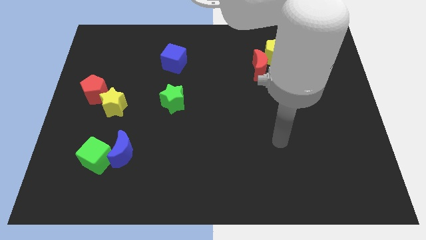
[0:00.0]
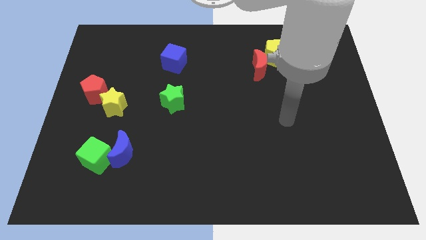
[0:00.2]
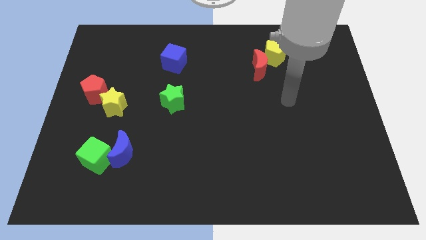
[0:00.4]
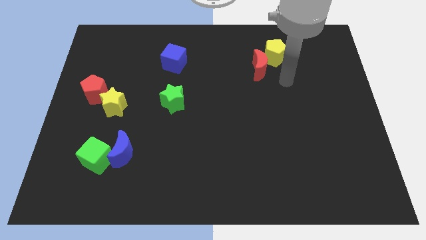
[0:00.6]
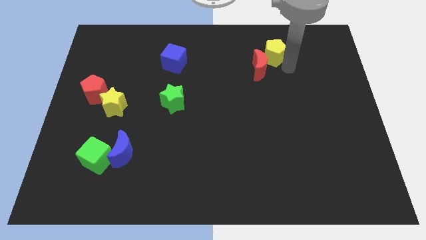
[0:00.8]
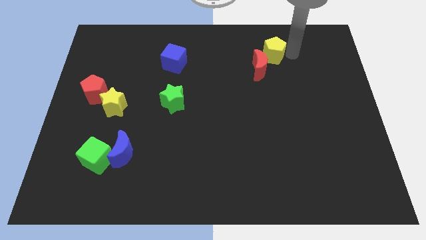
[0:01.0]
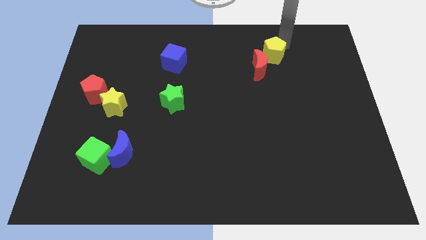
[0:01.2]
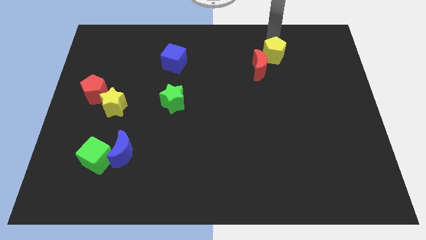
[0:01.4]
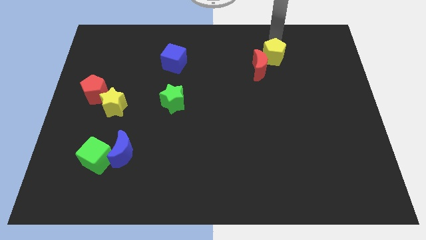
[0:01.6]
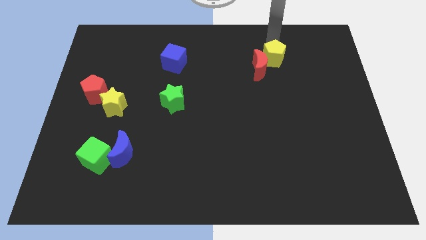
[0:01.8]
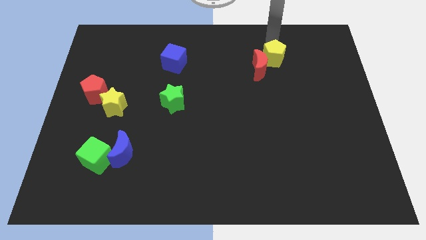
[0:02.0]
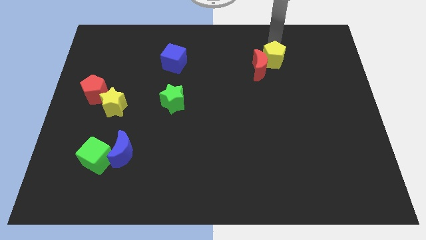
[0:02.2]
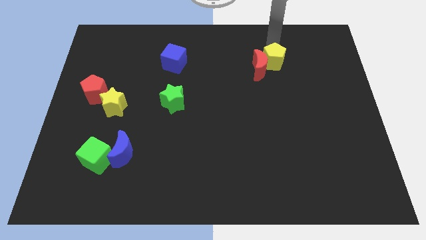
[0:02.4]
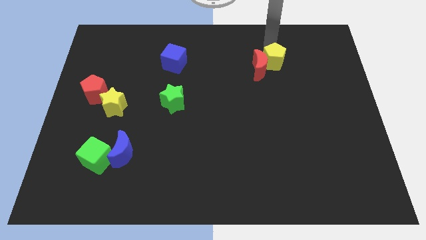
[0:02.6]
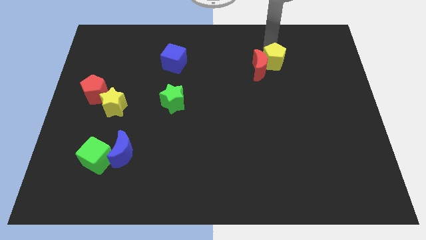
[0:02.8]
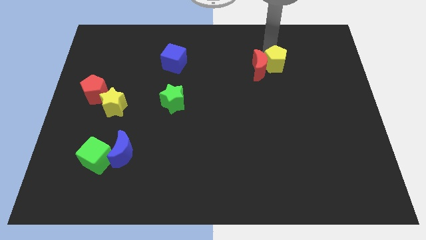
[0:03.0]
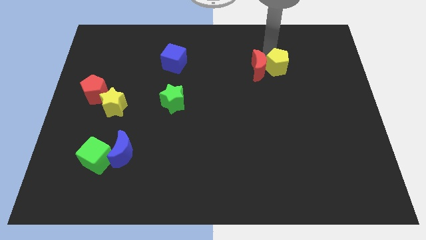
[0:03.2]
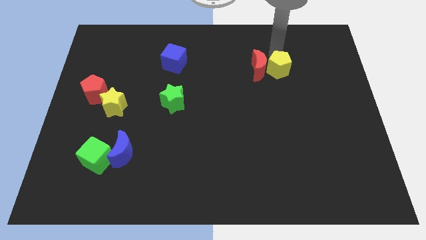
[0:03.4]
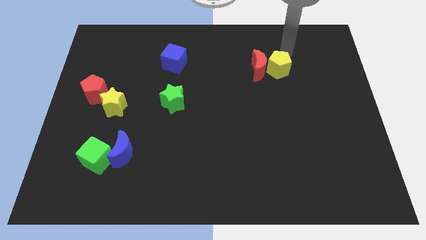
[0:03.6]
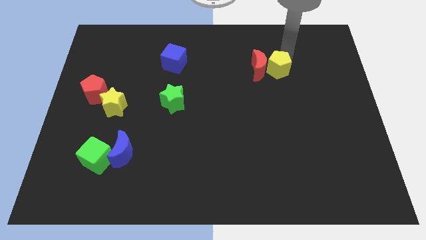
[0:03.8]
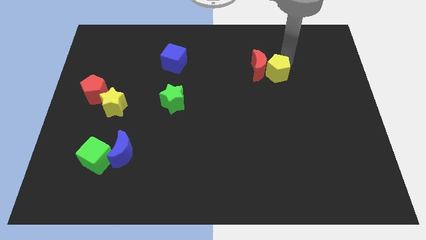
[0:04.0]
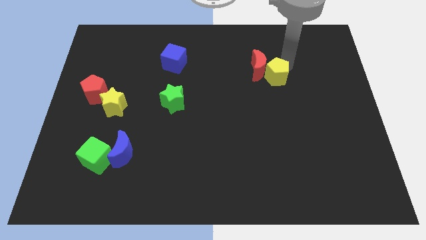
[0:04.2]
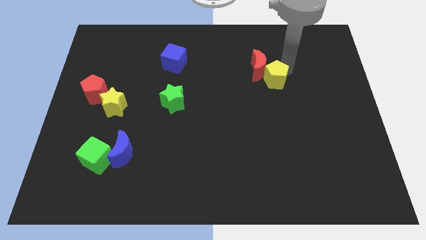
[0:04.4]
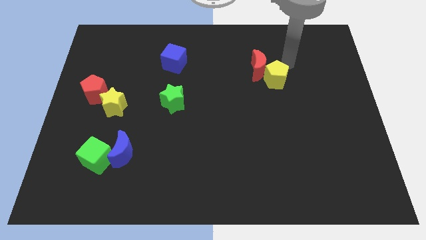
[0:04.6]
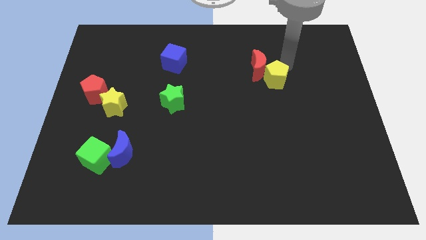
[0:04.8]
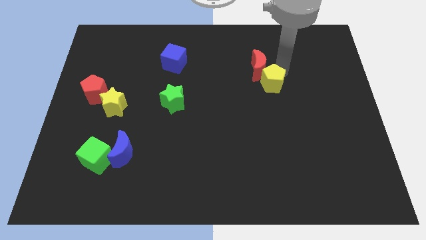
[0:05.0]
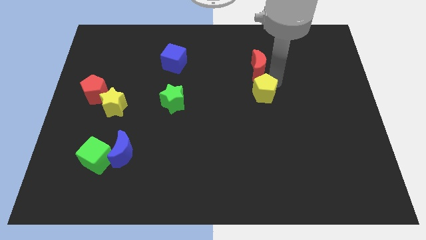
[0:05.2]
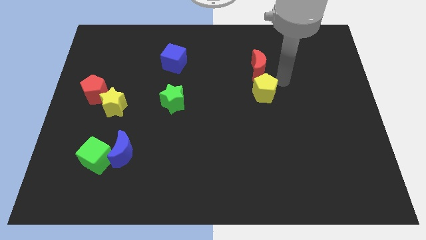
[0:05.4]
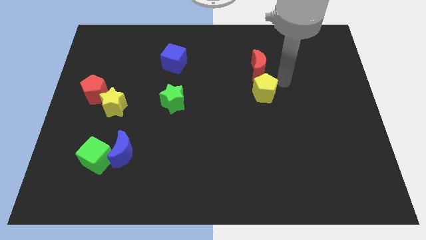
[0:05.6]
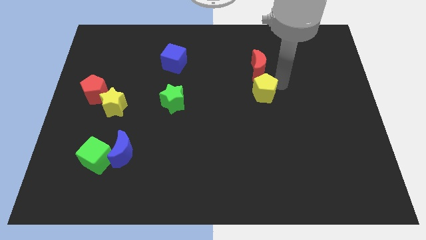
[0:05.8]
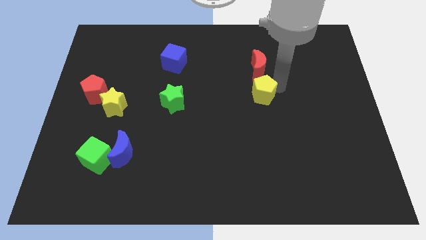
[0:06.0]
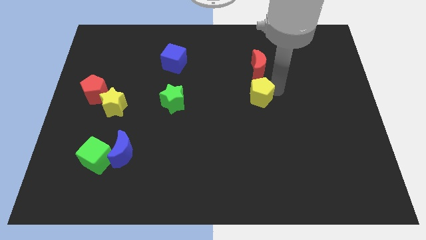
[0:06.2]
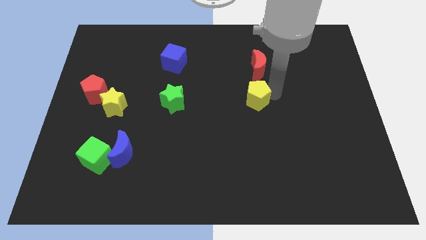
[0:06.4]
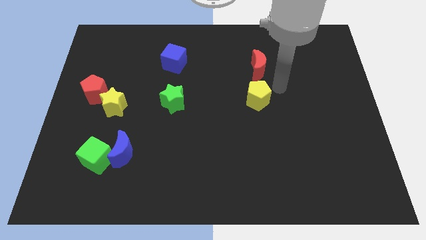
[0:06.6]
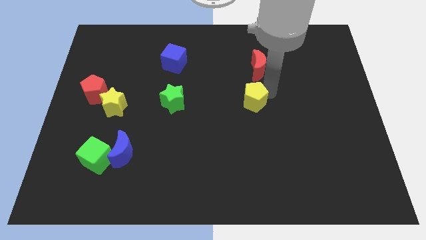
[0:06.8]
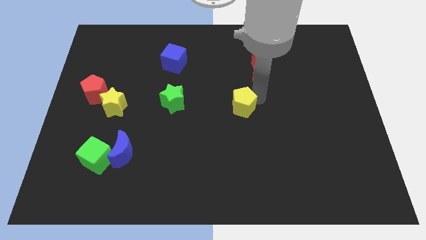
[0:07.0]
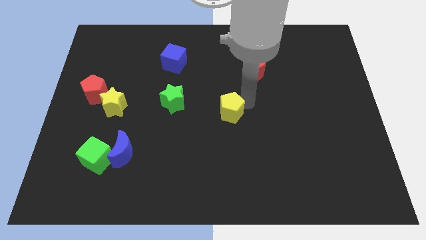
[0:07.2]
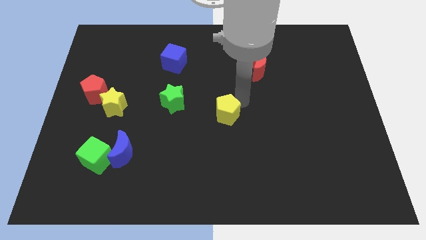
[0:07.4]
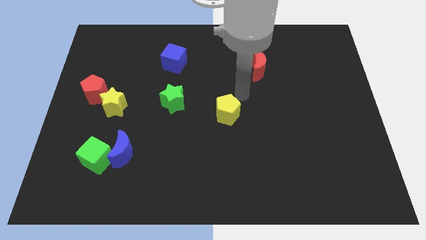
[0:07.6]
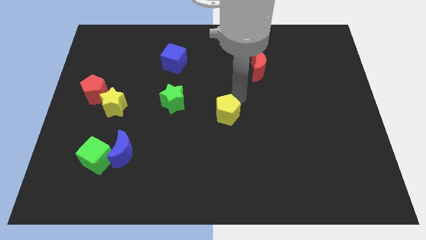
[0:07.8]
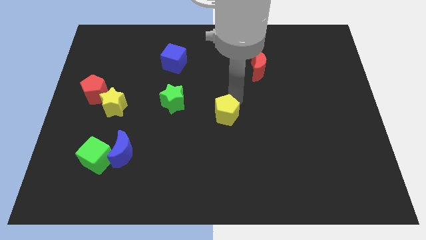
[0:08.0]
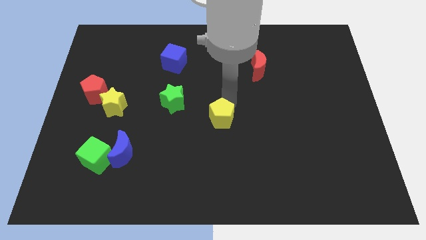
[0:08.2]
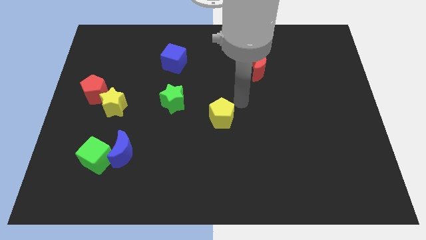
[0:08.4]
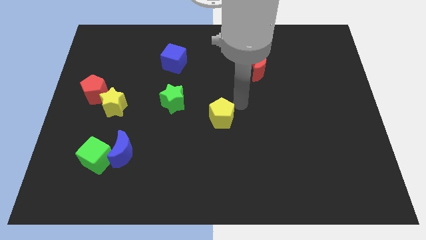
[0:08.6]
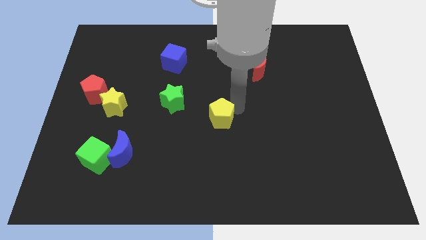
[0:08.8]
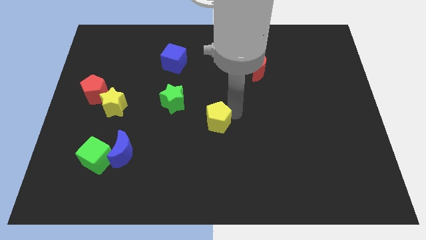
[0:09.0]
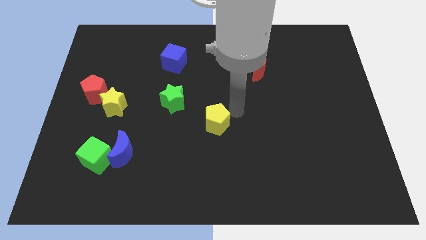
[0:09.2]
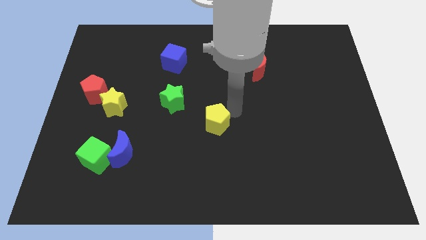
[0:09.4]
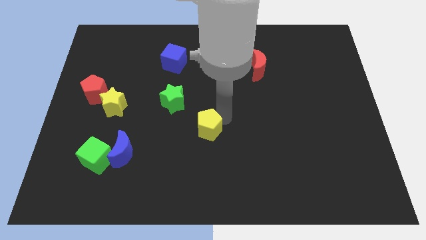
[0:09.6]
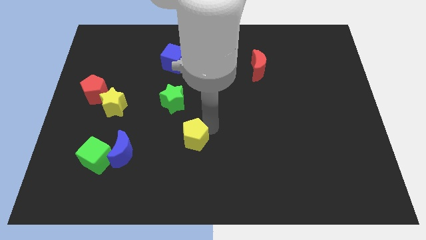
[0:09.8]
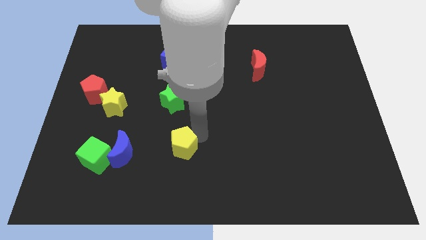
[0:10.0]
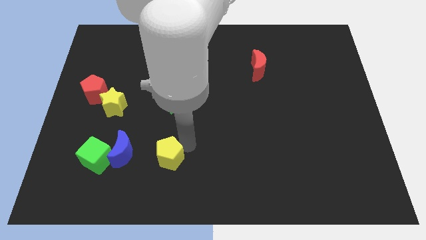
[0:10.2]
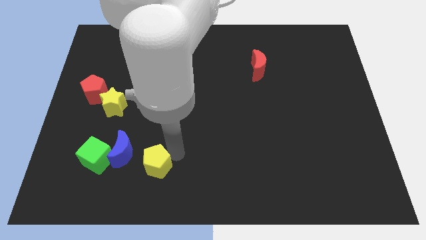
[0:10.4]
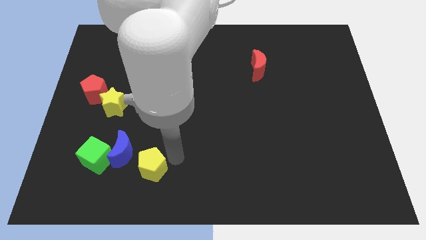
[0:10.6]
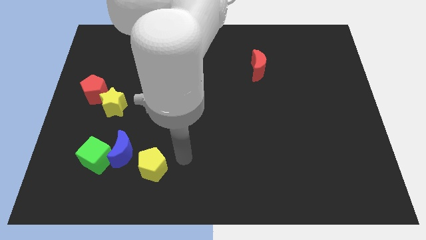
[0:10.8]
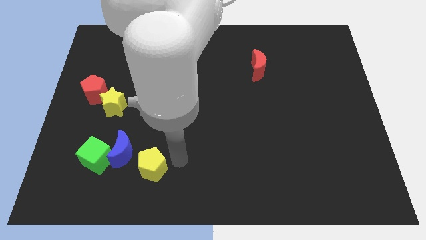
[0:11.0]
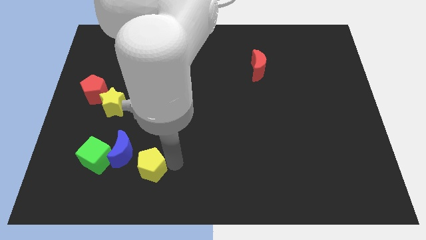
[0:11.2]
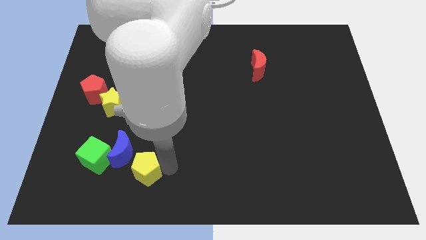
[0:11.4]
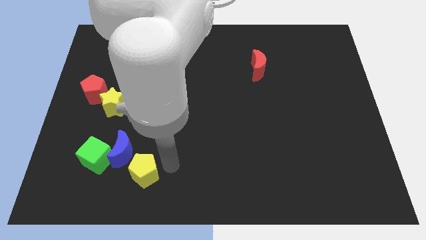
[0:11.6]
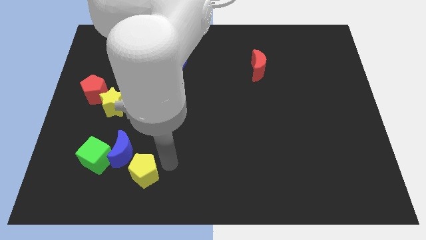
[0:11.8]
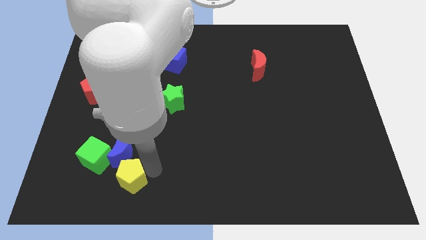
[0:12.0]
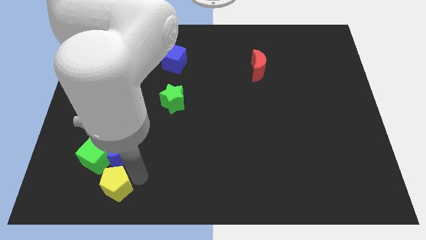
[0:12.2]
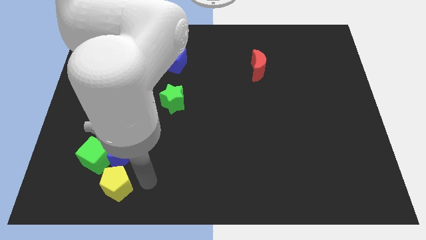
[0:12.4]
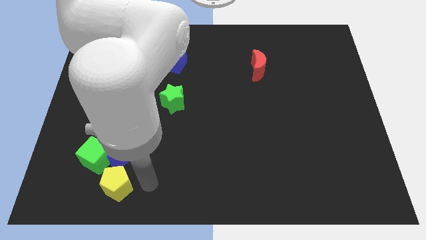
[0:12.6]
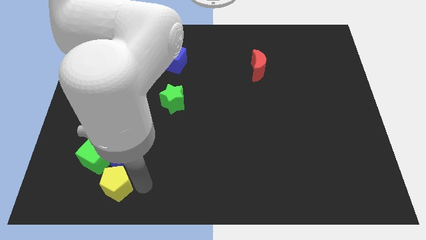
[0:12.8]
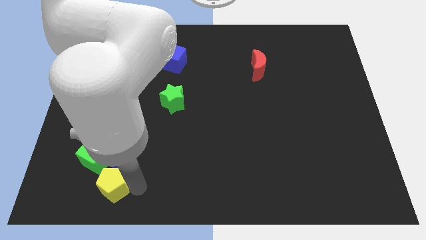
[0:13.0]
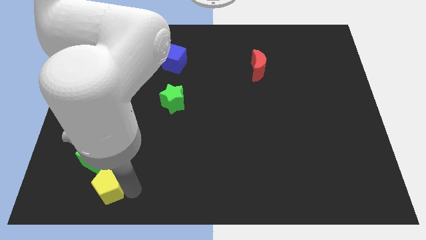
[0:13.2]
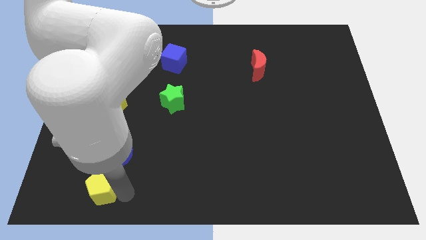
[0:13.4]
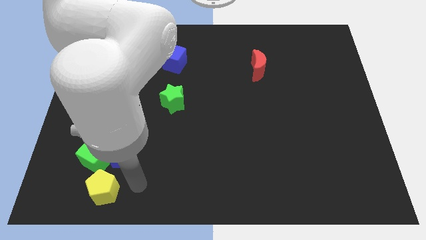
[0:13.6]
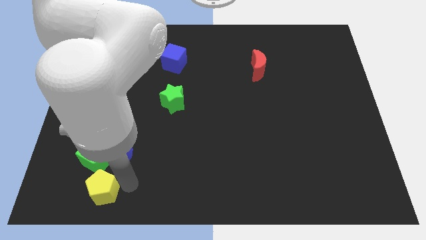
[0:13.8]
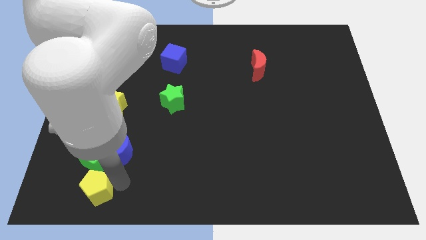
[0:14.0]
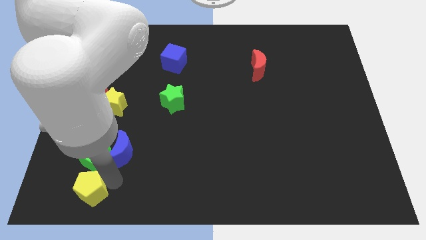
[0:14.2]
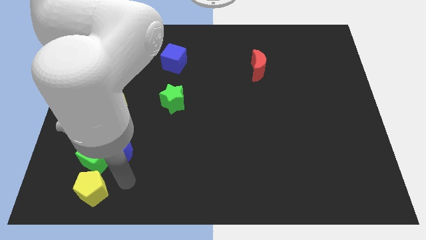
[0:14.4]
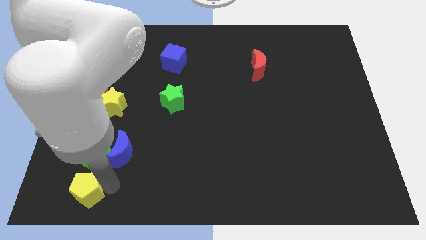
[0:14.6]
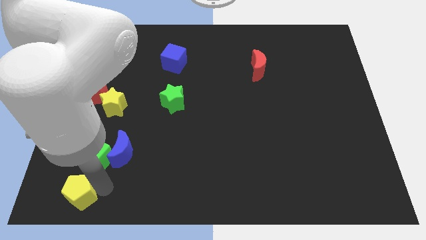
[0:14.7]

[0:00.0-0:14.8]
move the yellow pentagon to the lower left corner
